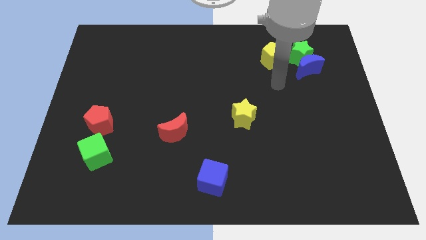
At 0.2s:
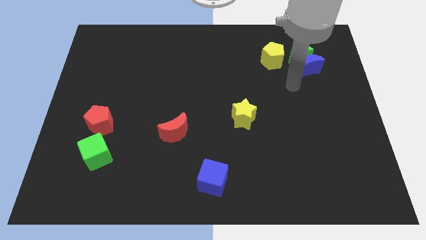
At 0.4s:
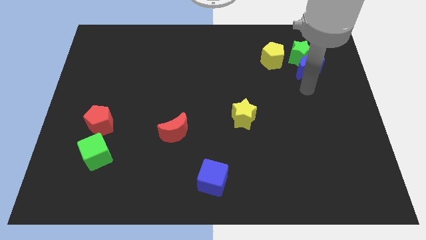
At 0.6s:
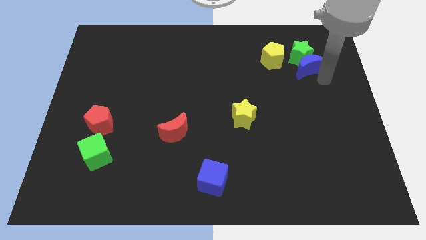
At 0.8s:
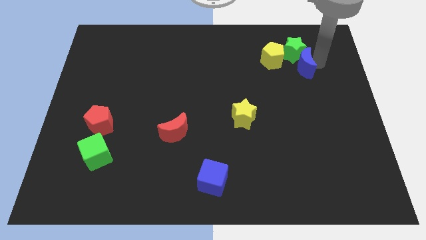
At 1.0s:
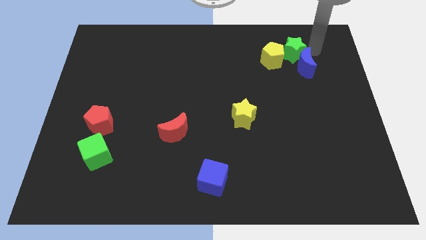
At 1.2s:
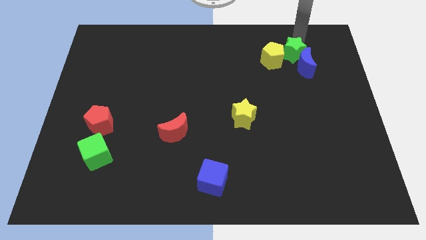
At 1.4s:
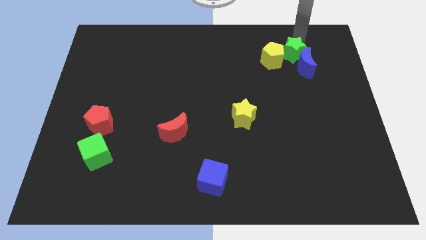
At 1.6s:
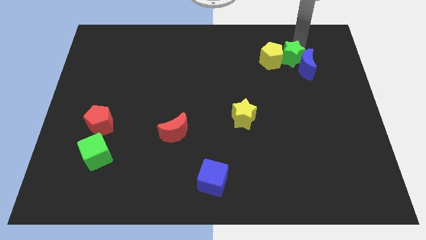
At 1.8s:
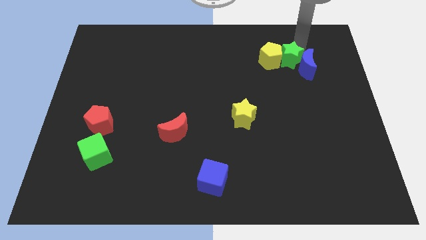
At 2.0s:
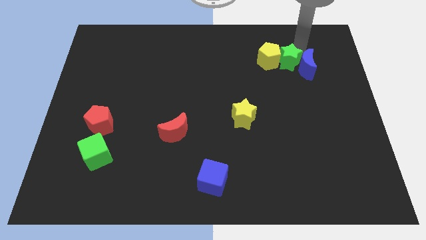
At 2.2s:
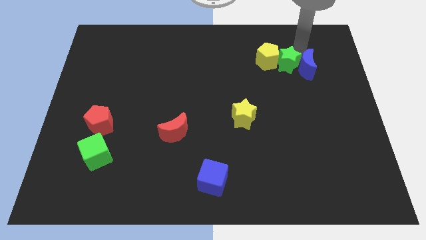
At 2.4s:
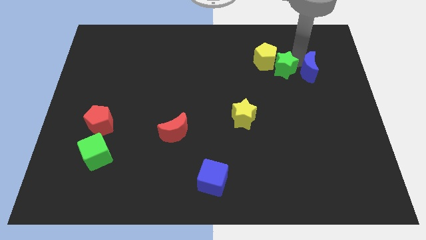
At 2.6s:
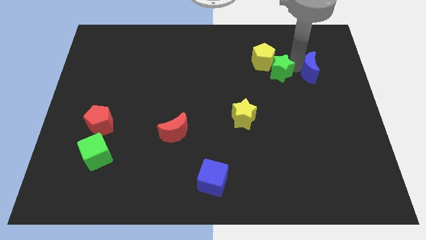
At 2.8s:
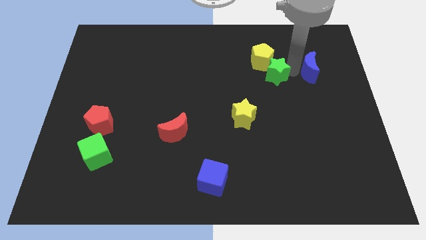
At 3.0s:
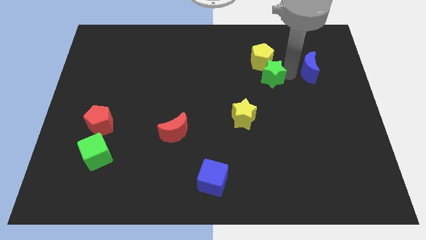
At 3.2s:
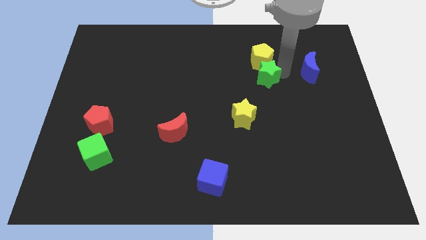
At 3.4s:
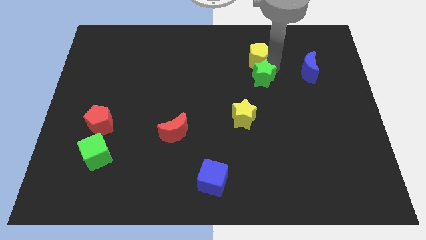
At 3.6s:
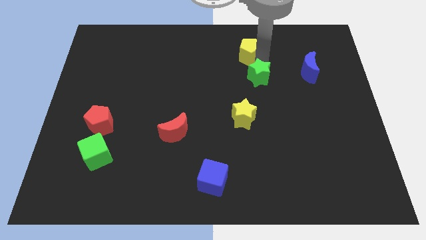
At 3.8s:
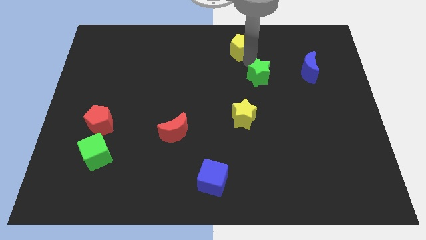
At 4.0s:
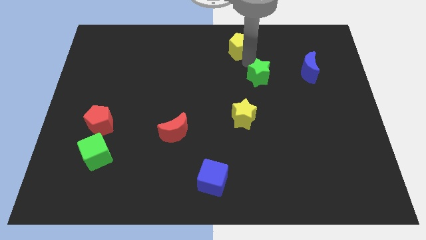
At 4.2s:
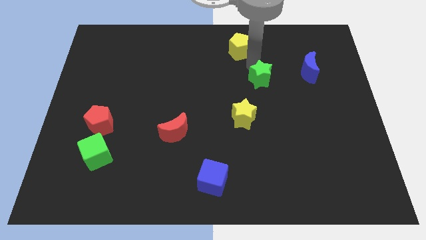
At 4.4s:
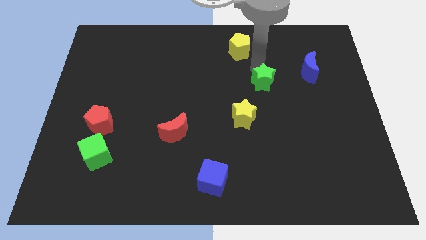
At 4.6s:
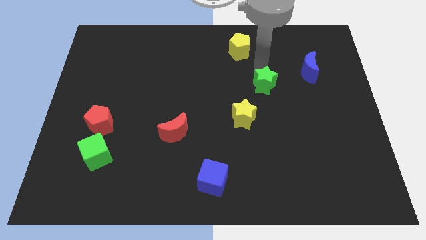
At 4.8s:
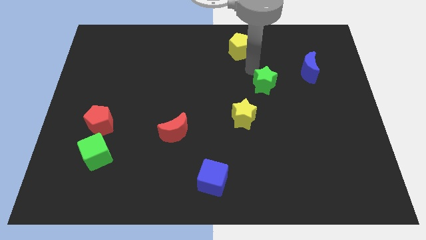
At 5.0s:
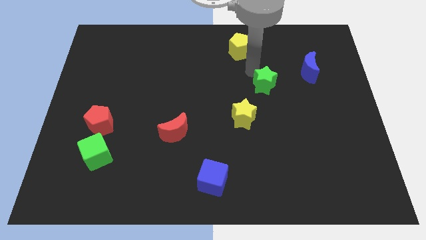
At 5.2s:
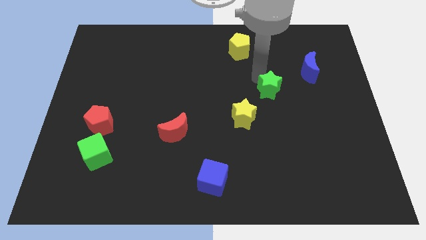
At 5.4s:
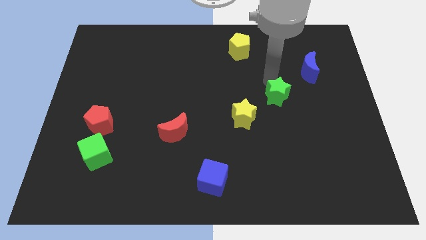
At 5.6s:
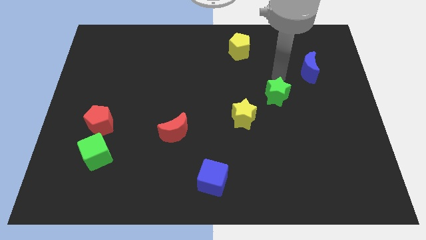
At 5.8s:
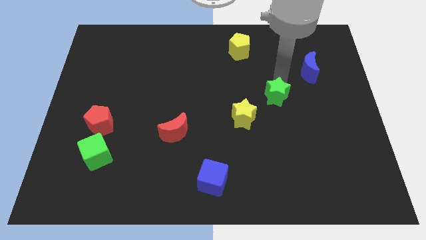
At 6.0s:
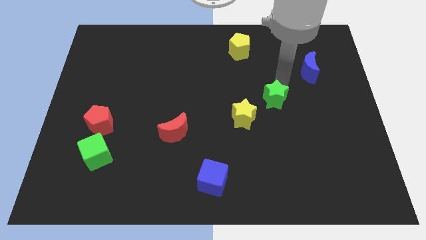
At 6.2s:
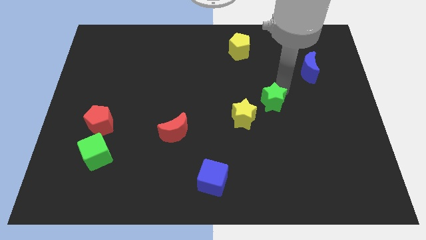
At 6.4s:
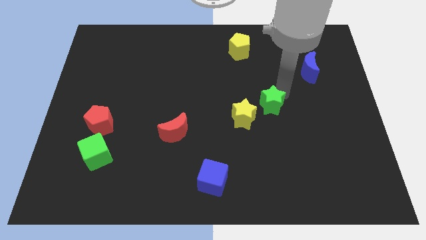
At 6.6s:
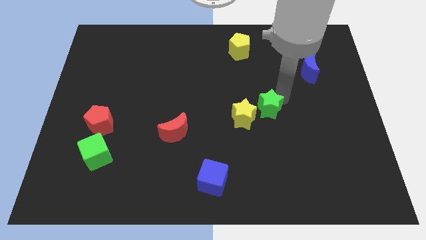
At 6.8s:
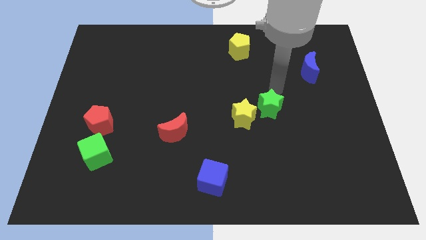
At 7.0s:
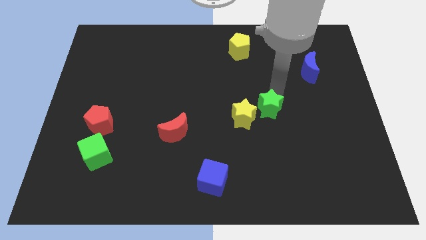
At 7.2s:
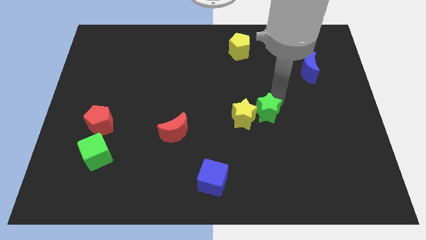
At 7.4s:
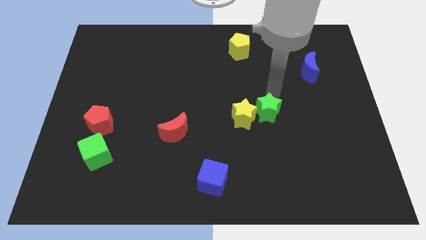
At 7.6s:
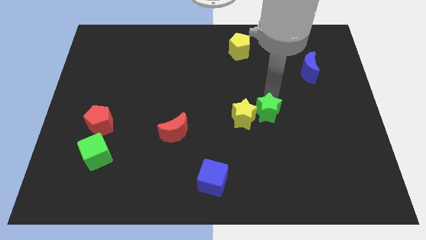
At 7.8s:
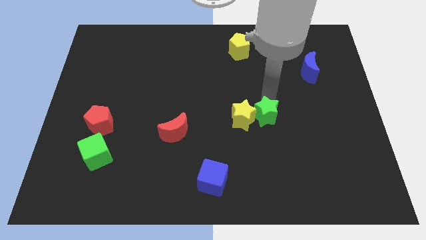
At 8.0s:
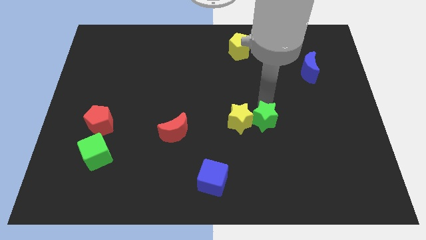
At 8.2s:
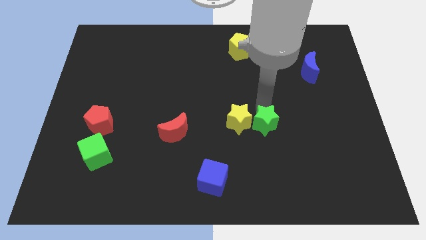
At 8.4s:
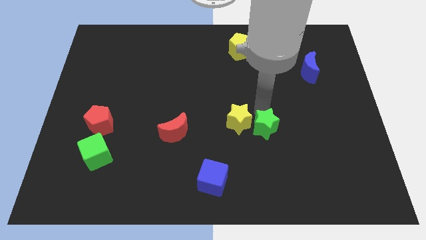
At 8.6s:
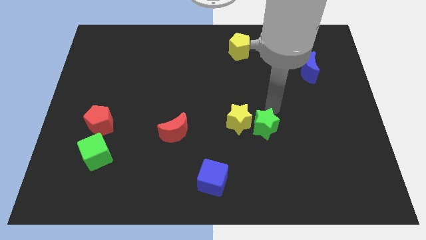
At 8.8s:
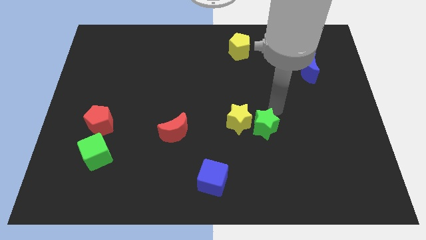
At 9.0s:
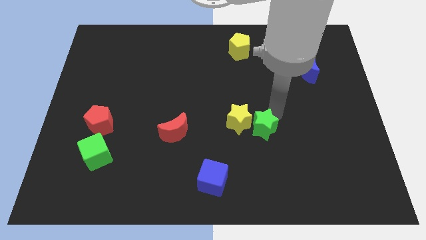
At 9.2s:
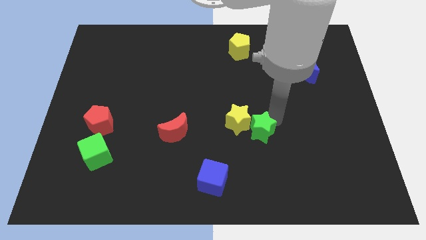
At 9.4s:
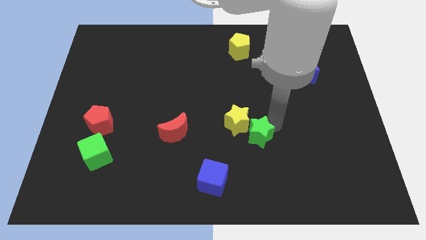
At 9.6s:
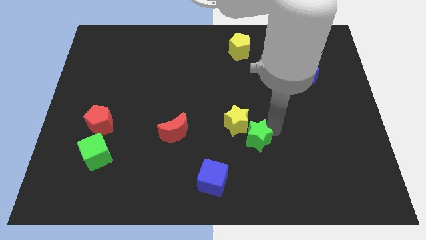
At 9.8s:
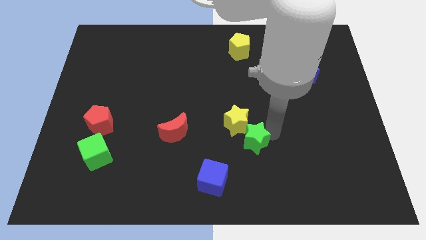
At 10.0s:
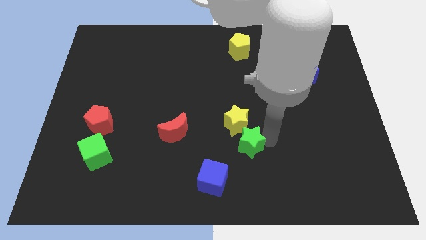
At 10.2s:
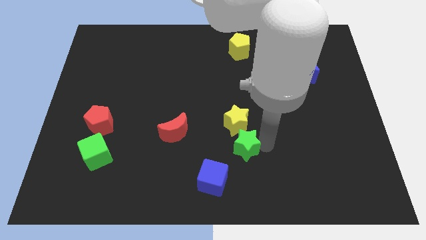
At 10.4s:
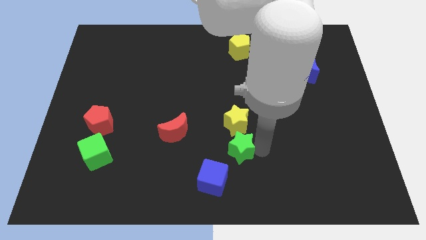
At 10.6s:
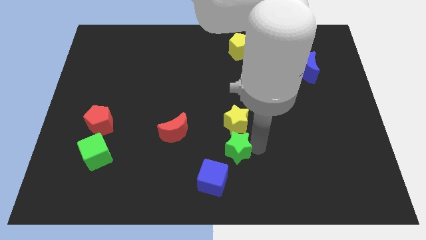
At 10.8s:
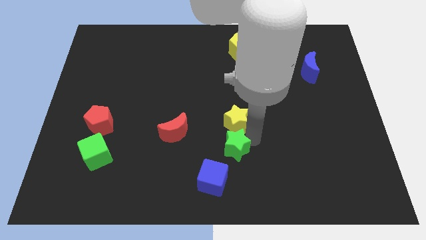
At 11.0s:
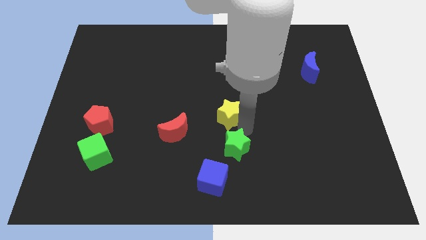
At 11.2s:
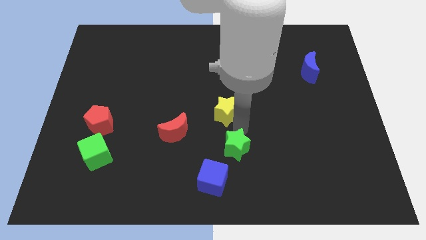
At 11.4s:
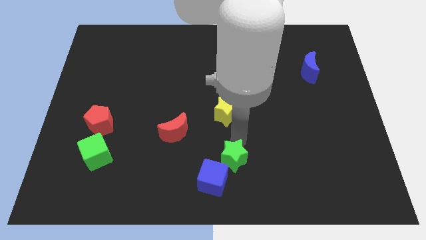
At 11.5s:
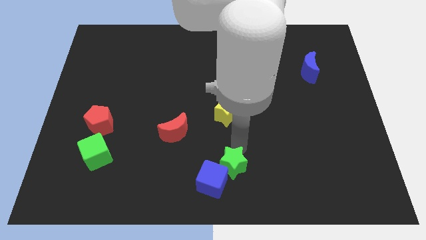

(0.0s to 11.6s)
put the green star next to the blue cube
